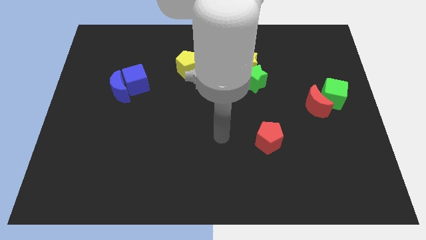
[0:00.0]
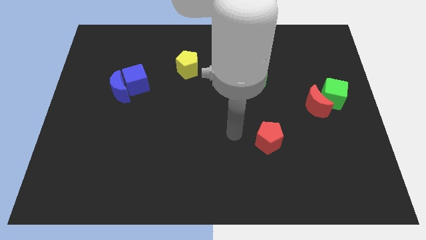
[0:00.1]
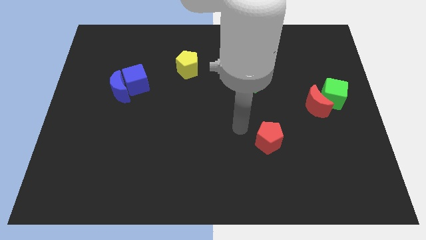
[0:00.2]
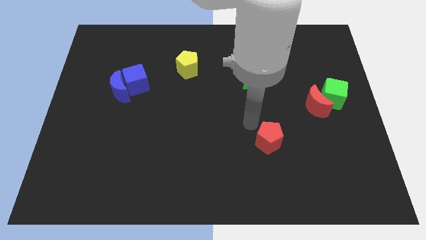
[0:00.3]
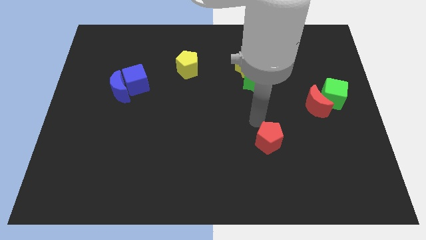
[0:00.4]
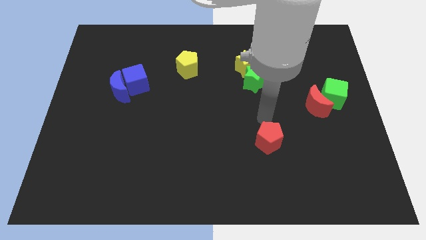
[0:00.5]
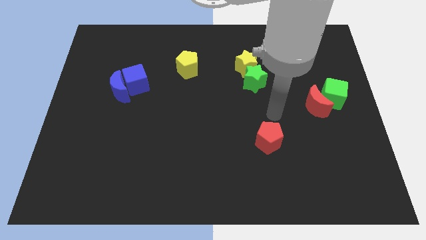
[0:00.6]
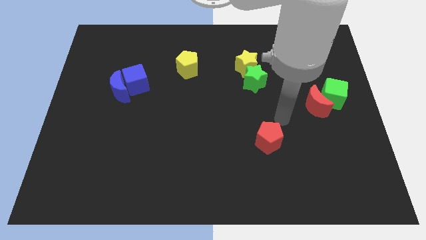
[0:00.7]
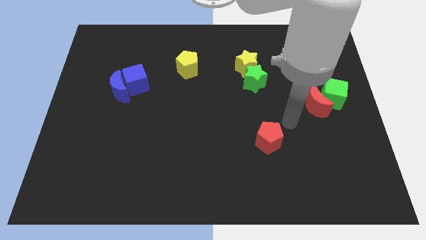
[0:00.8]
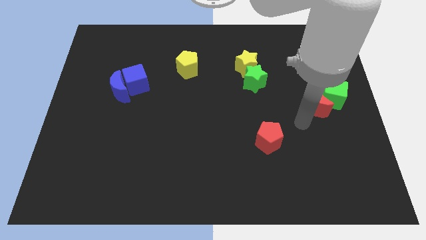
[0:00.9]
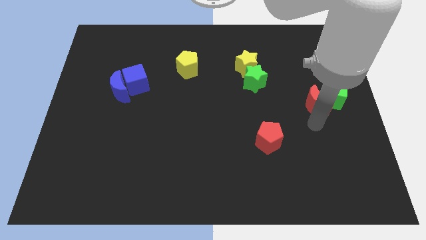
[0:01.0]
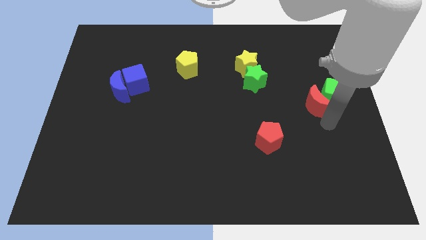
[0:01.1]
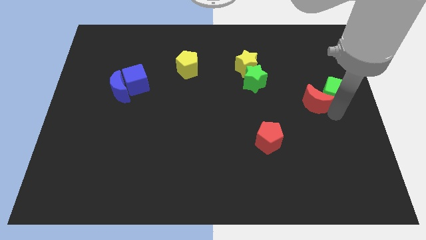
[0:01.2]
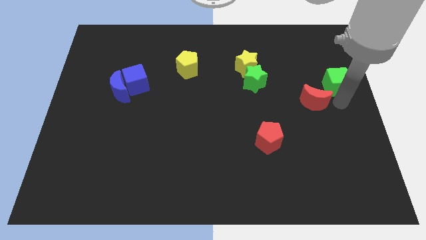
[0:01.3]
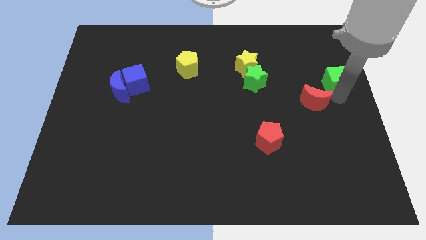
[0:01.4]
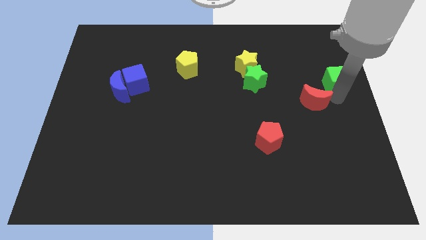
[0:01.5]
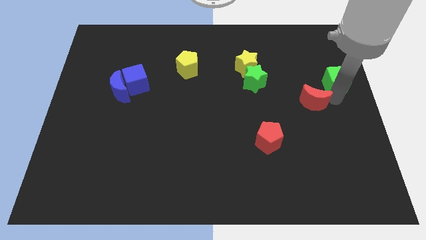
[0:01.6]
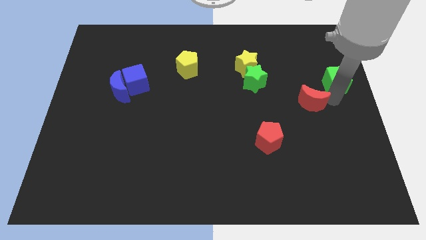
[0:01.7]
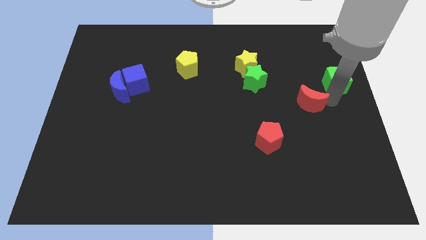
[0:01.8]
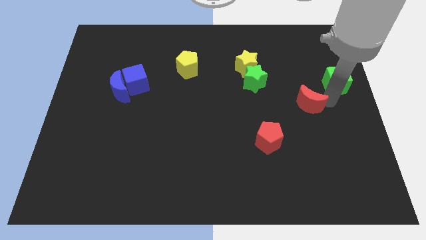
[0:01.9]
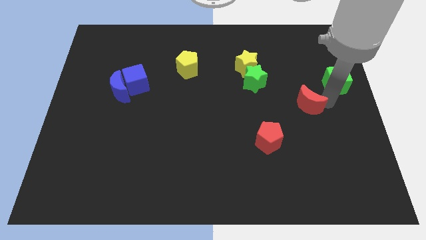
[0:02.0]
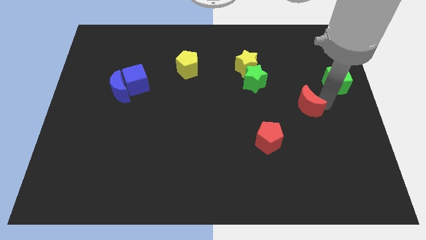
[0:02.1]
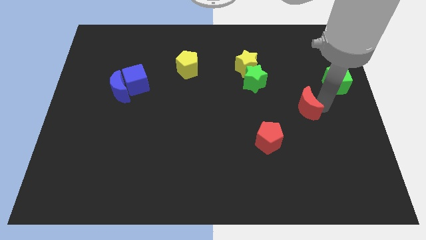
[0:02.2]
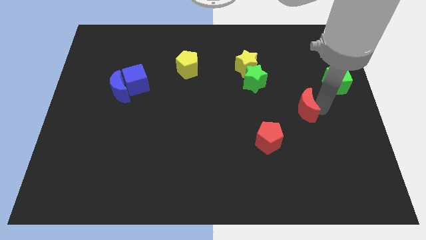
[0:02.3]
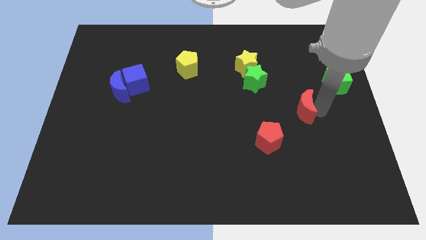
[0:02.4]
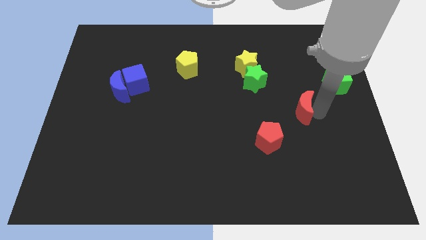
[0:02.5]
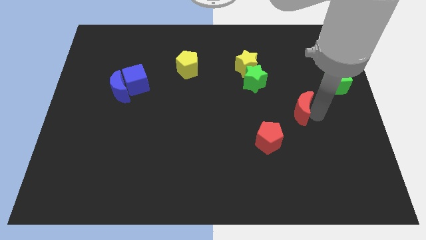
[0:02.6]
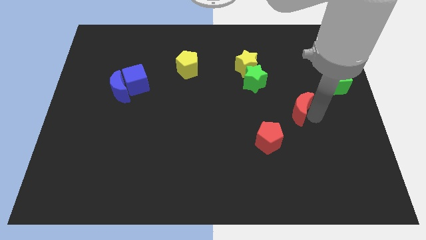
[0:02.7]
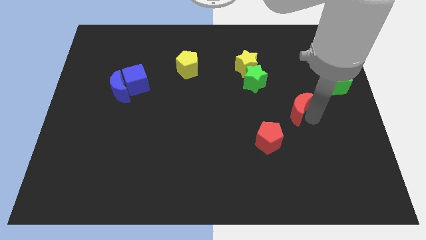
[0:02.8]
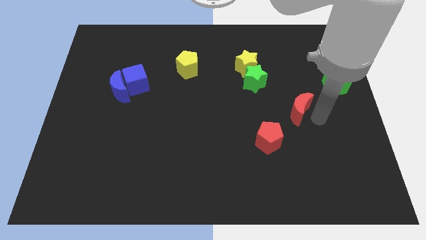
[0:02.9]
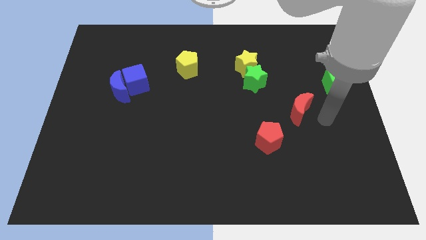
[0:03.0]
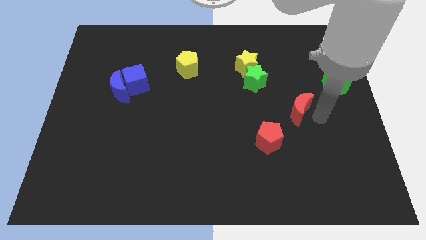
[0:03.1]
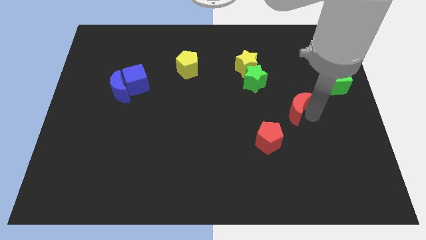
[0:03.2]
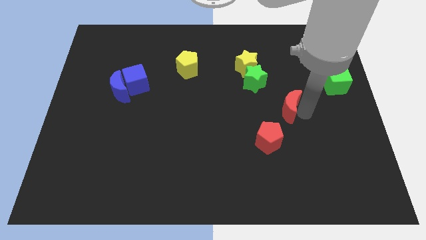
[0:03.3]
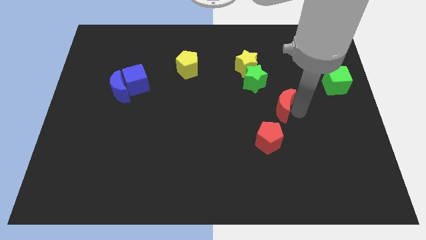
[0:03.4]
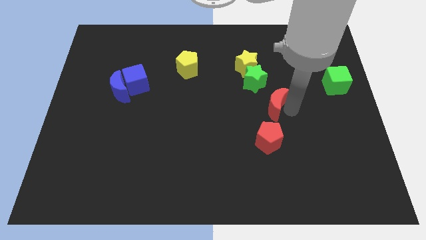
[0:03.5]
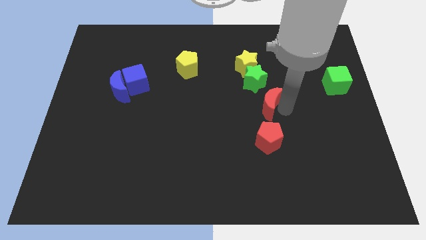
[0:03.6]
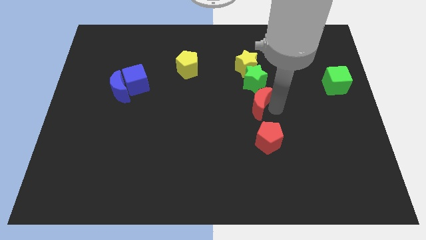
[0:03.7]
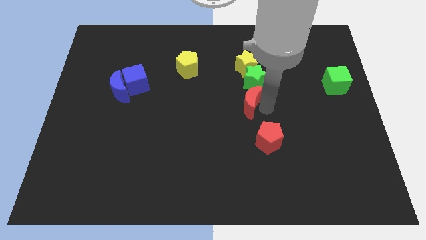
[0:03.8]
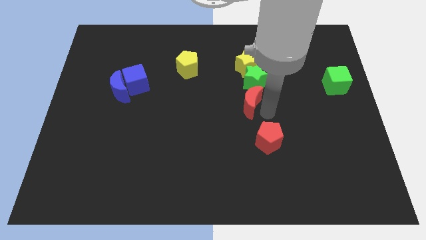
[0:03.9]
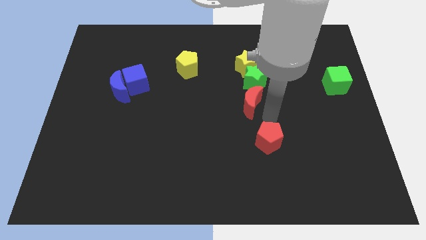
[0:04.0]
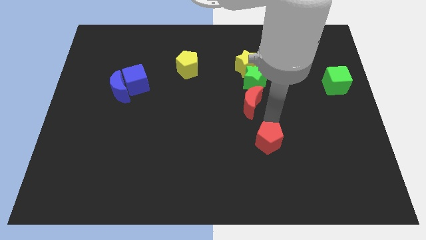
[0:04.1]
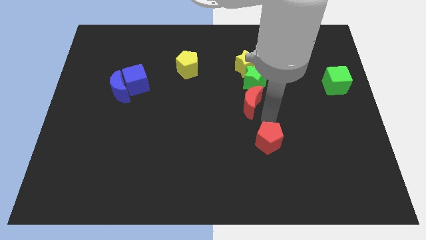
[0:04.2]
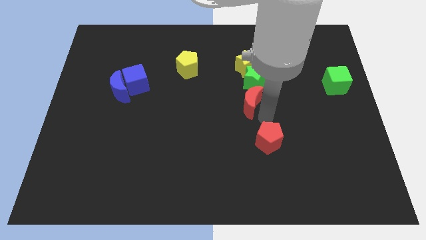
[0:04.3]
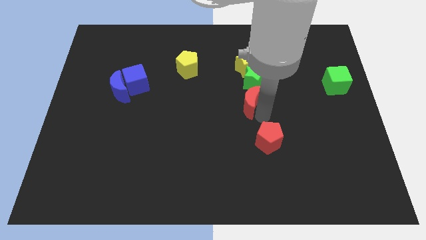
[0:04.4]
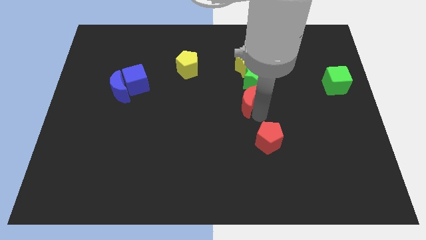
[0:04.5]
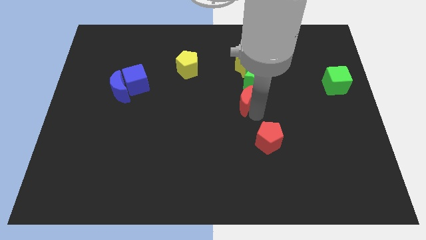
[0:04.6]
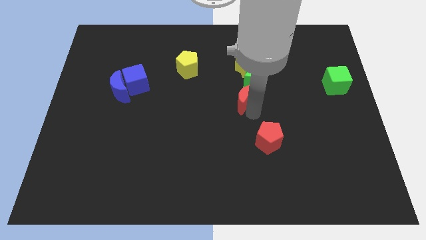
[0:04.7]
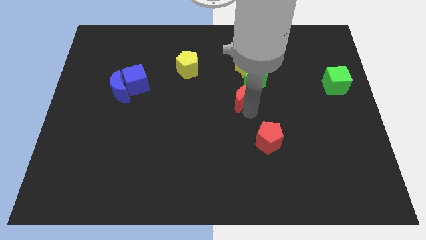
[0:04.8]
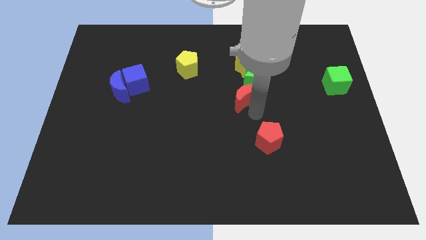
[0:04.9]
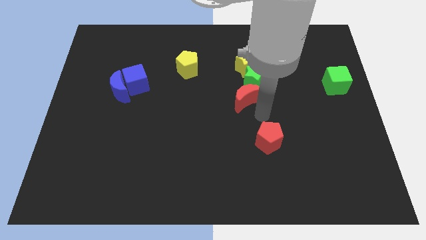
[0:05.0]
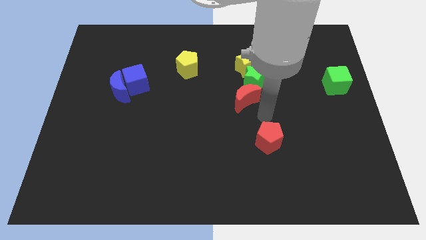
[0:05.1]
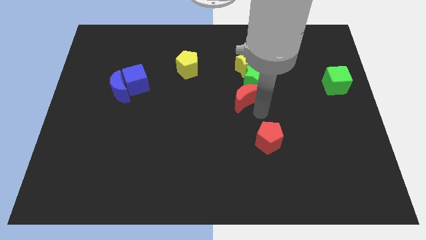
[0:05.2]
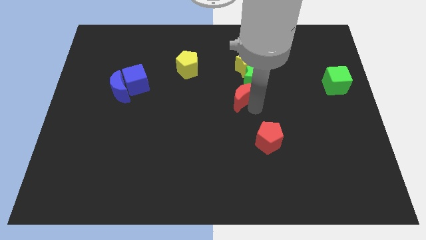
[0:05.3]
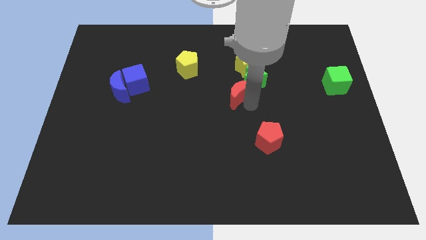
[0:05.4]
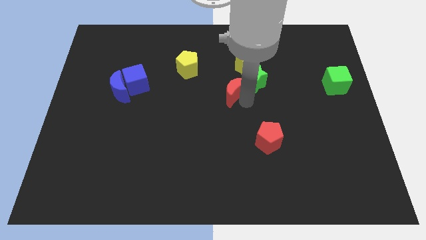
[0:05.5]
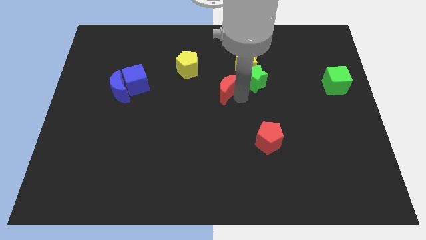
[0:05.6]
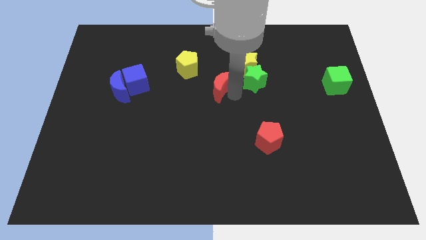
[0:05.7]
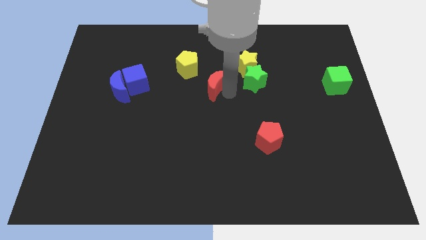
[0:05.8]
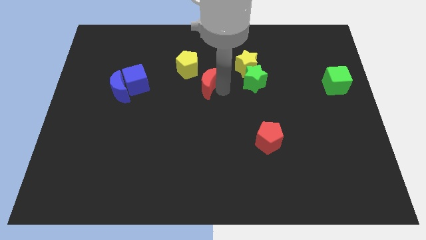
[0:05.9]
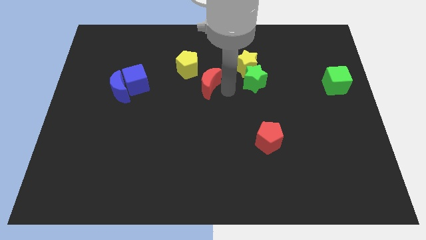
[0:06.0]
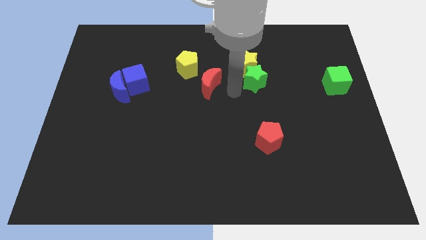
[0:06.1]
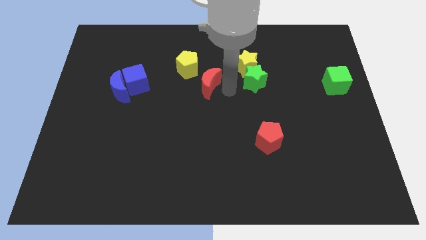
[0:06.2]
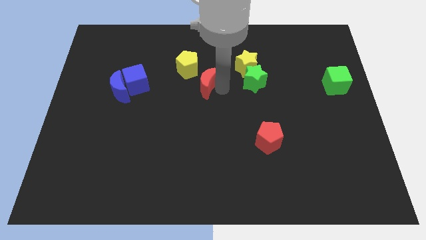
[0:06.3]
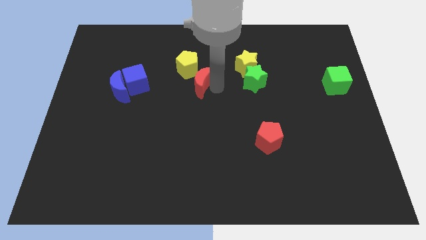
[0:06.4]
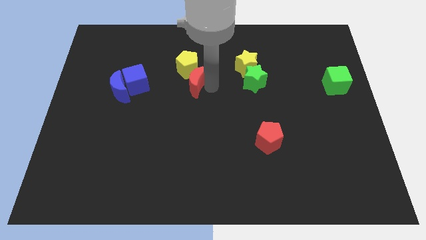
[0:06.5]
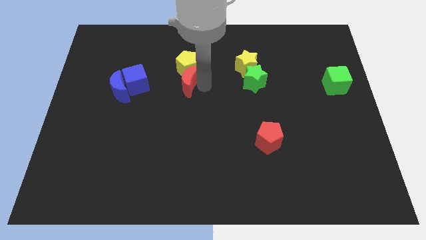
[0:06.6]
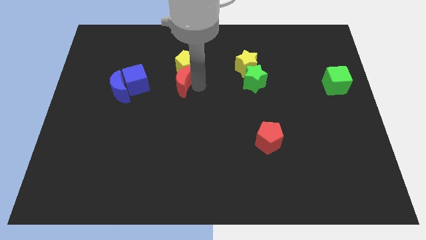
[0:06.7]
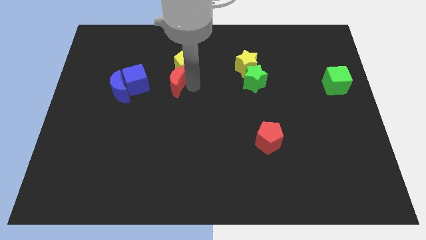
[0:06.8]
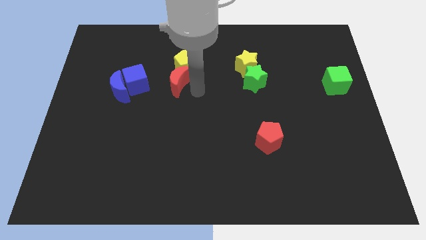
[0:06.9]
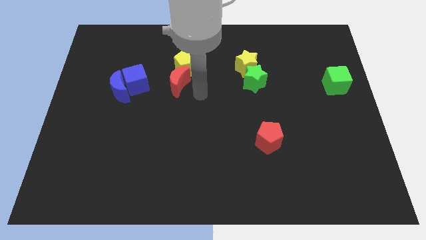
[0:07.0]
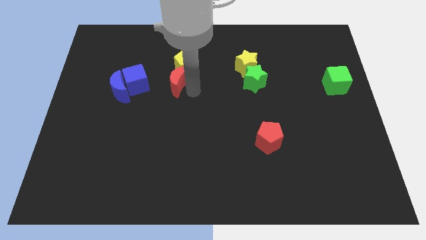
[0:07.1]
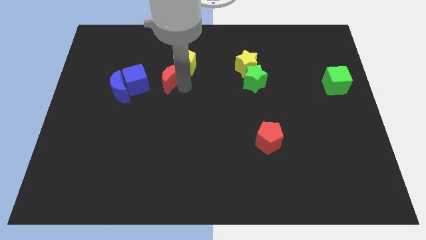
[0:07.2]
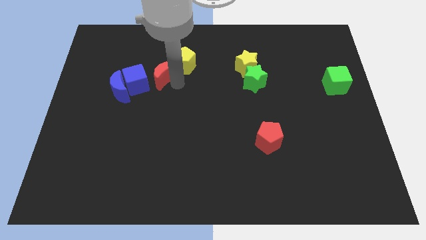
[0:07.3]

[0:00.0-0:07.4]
put the red moon to the left side of the yellow pentagon
